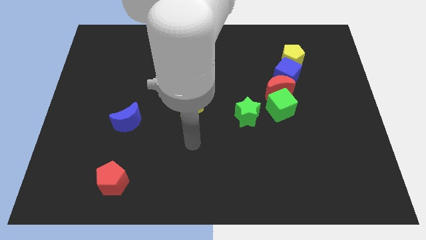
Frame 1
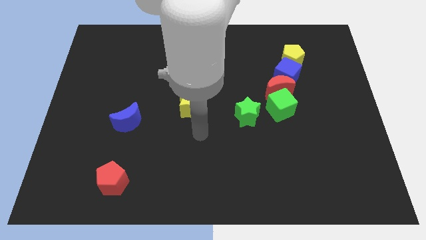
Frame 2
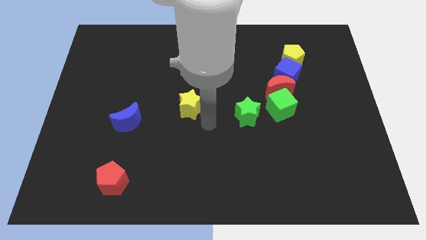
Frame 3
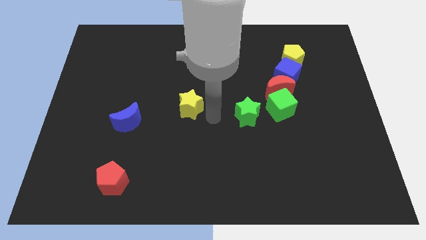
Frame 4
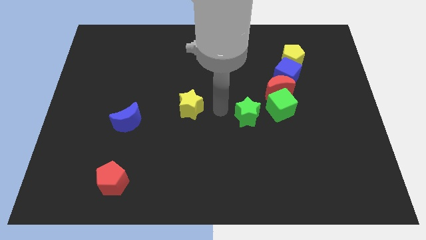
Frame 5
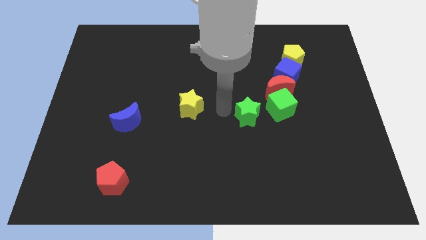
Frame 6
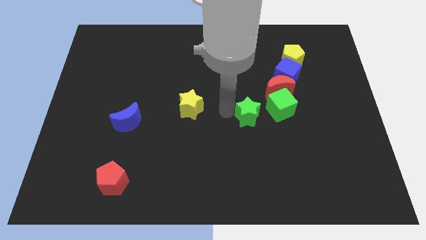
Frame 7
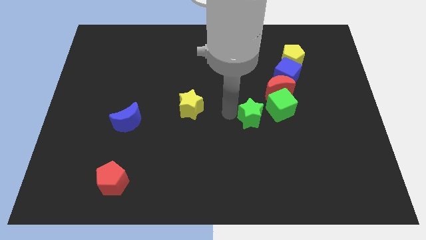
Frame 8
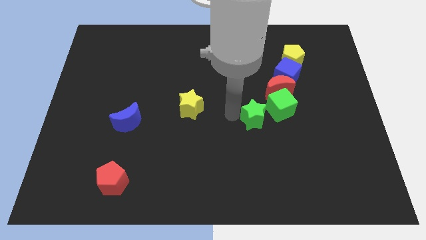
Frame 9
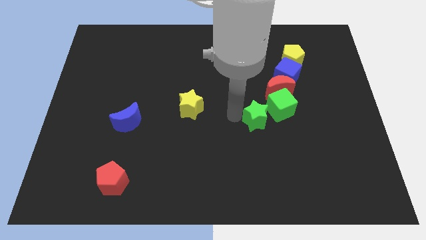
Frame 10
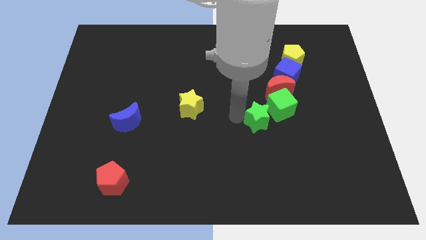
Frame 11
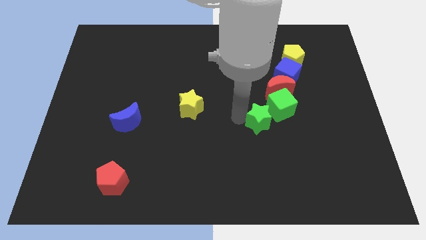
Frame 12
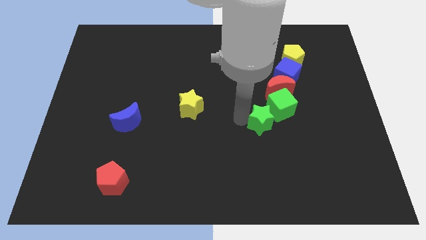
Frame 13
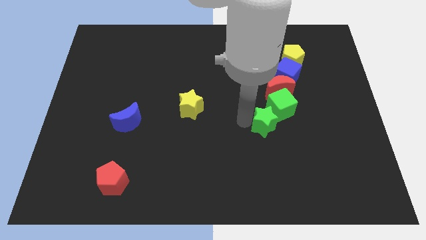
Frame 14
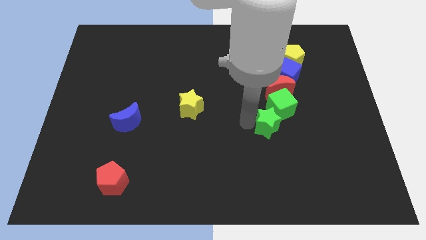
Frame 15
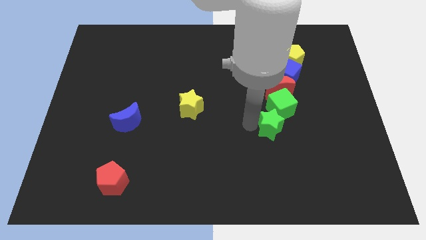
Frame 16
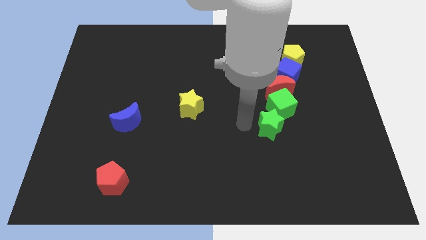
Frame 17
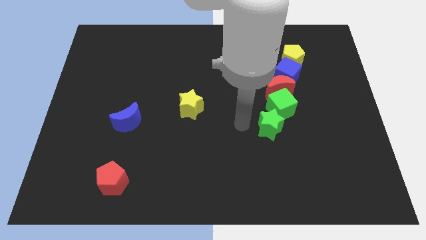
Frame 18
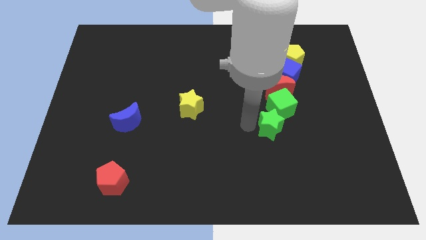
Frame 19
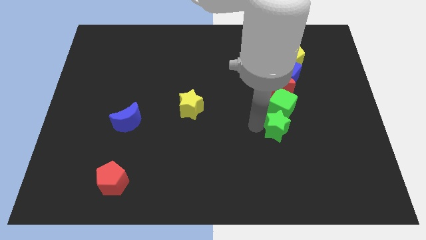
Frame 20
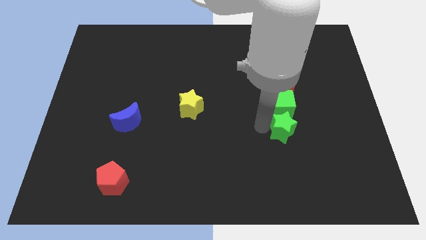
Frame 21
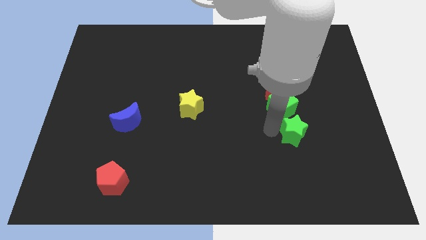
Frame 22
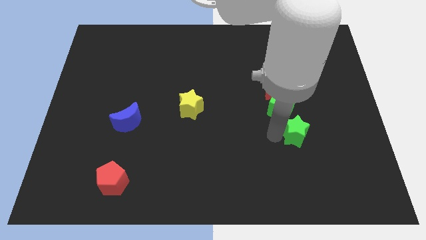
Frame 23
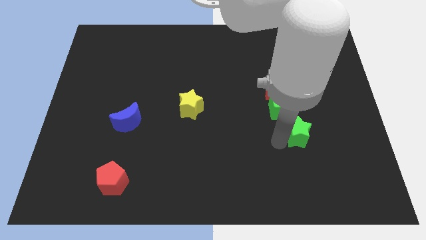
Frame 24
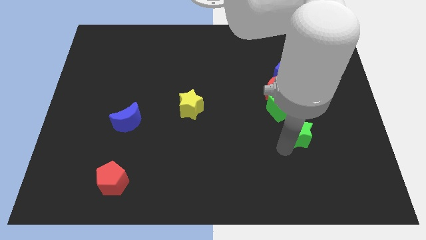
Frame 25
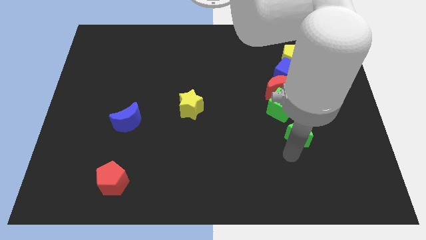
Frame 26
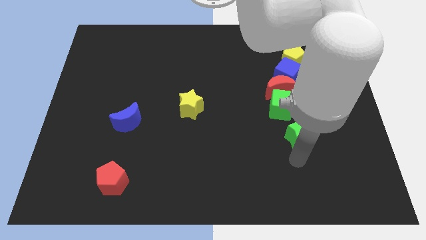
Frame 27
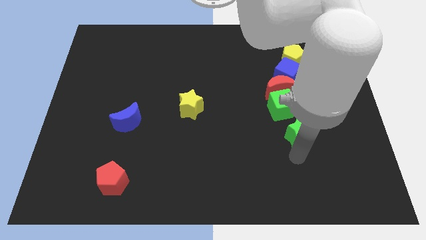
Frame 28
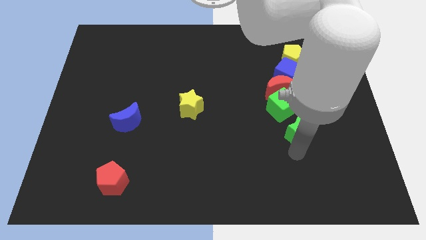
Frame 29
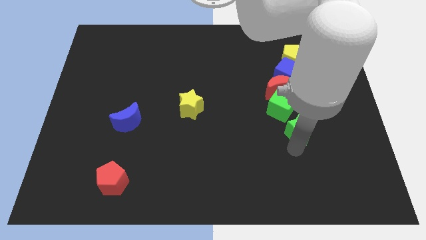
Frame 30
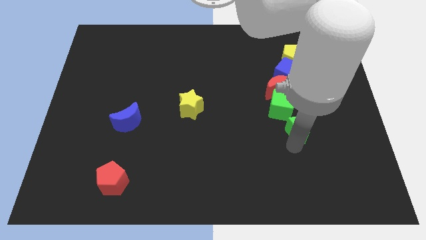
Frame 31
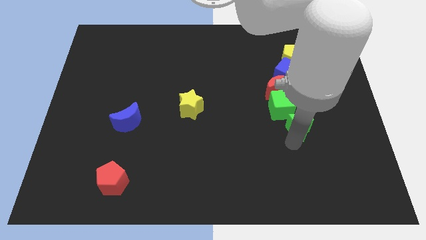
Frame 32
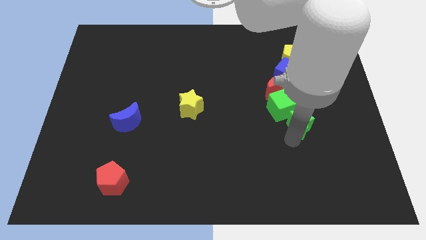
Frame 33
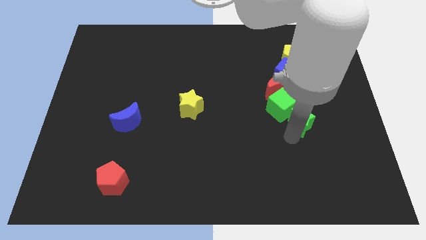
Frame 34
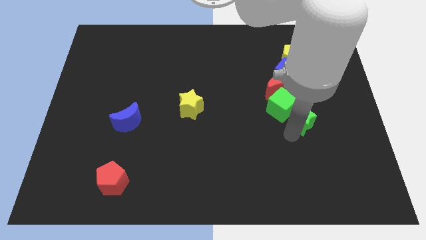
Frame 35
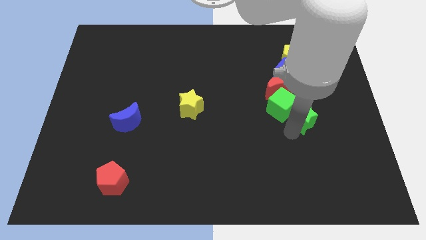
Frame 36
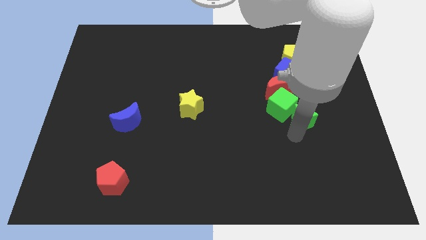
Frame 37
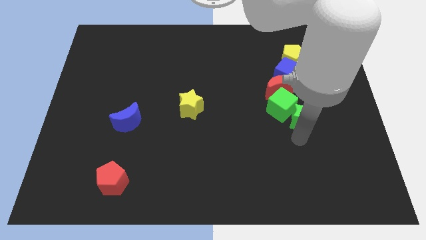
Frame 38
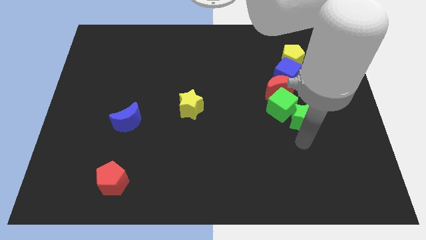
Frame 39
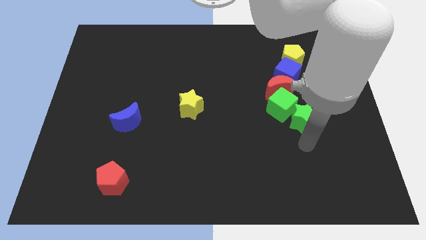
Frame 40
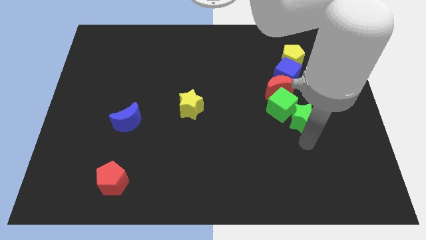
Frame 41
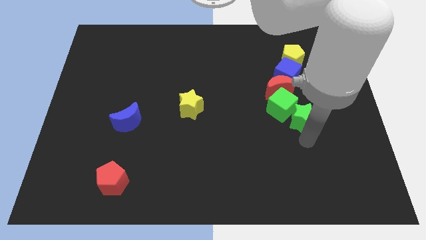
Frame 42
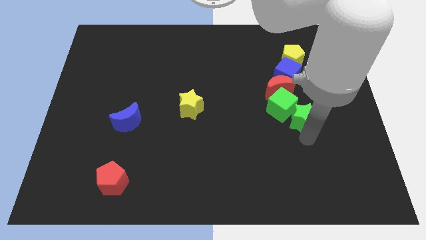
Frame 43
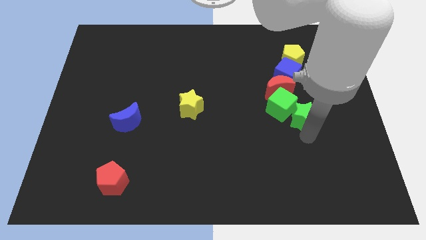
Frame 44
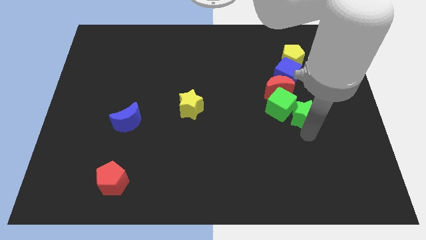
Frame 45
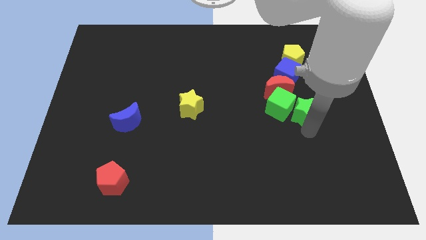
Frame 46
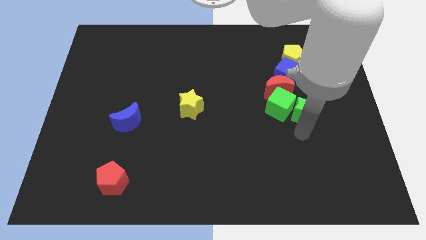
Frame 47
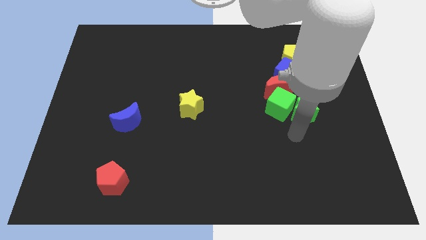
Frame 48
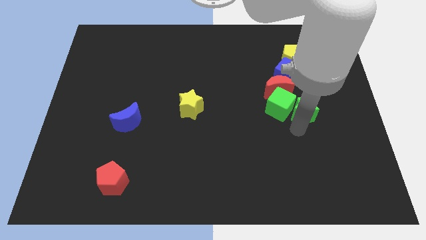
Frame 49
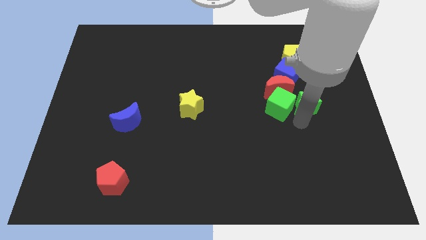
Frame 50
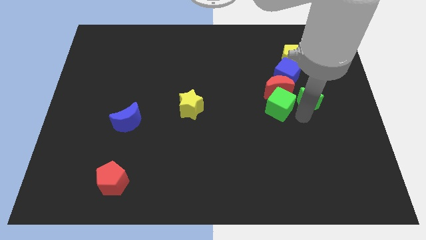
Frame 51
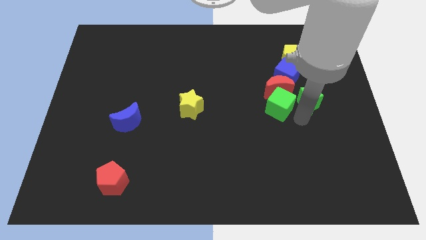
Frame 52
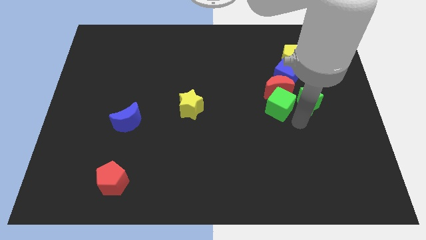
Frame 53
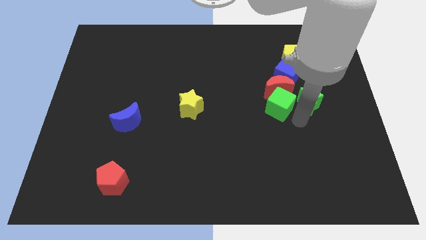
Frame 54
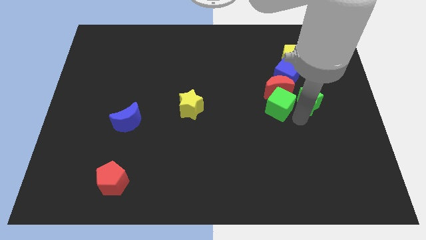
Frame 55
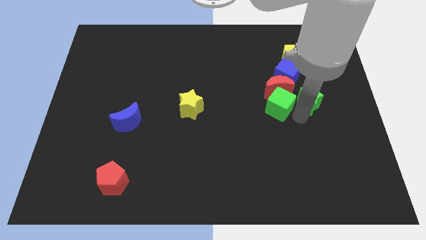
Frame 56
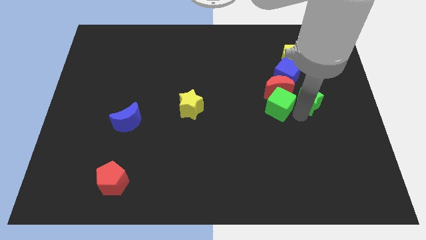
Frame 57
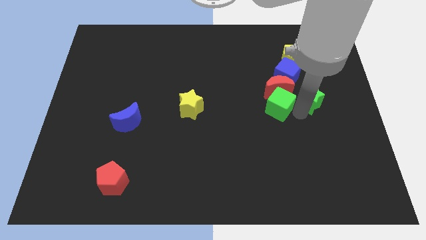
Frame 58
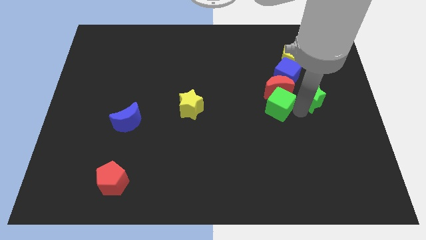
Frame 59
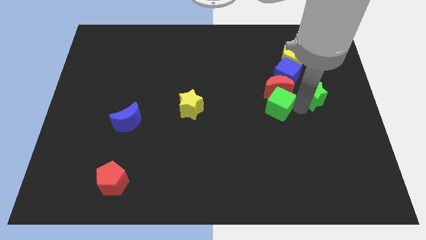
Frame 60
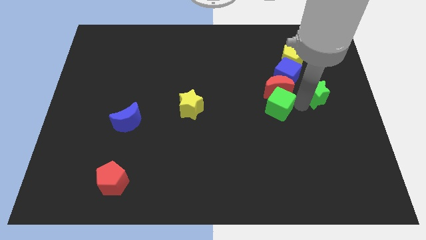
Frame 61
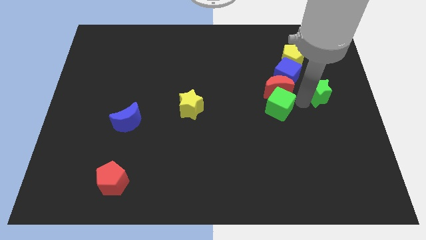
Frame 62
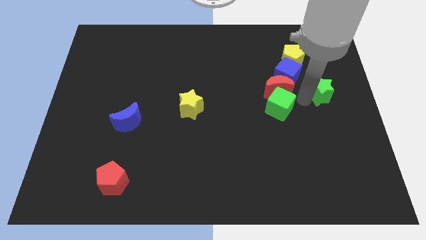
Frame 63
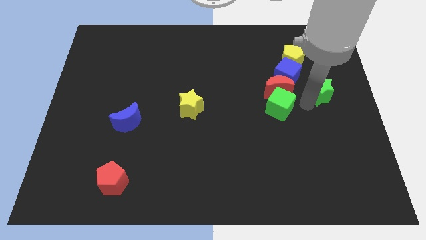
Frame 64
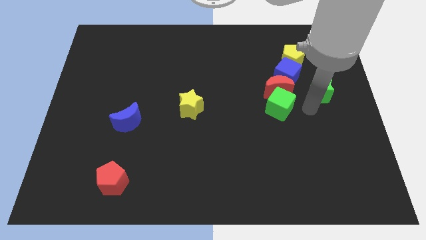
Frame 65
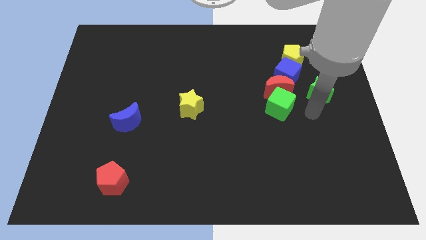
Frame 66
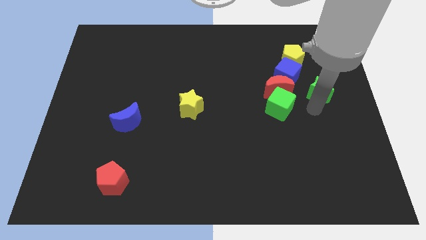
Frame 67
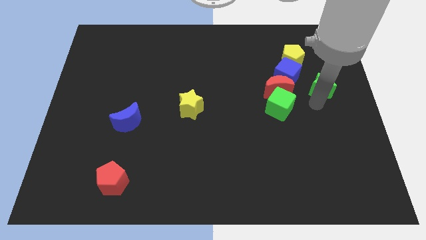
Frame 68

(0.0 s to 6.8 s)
move the green star to the right side of the blue cube
